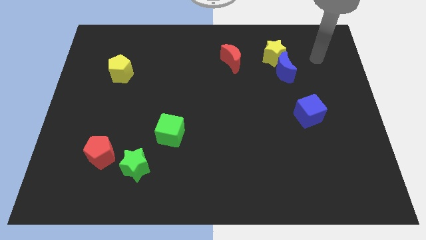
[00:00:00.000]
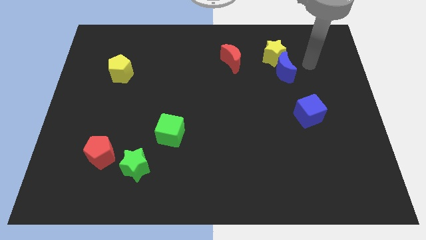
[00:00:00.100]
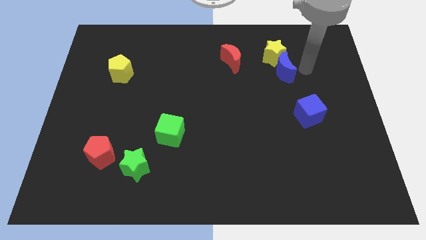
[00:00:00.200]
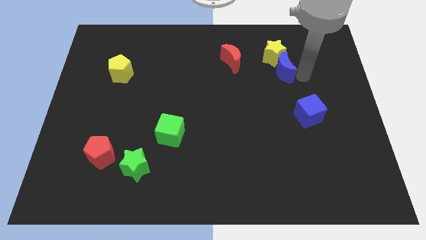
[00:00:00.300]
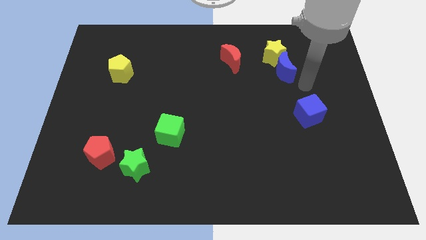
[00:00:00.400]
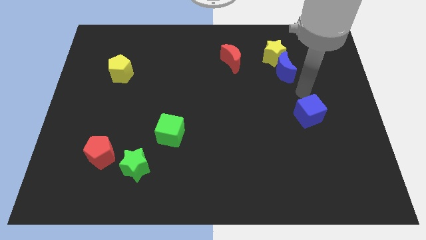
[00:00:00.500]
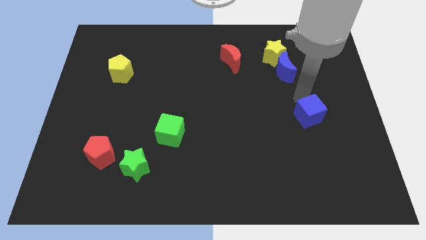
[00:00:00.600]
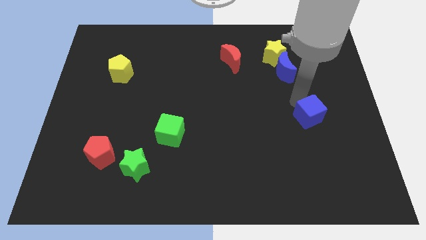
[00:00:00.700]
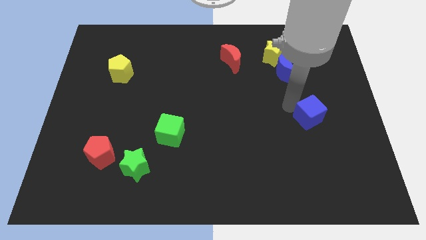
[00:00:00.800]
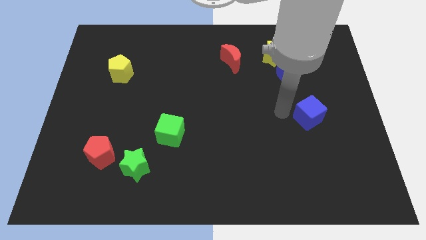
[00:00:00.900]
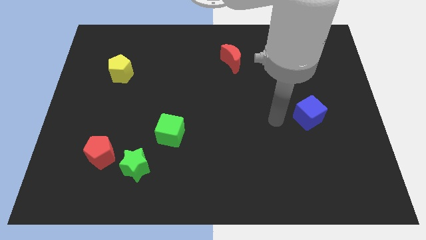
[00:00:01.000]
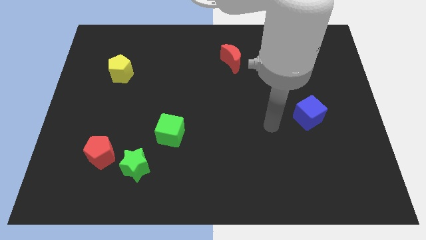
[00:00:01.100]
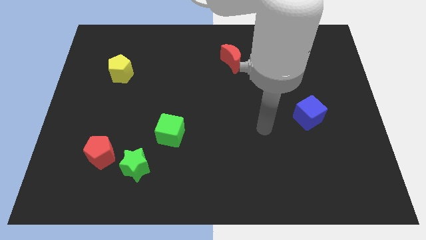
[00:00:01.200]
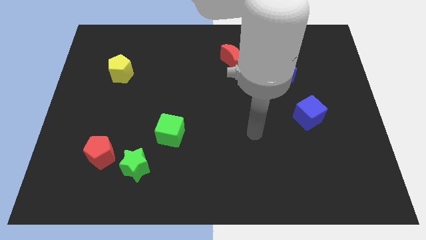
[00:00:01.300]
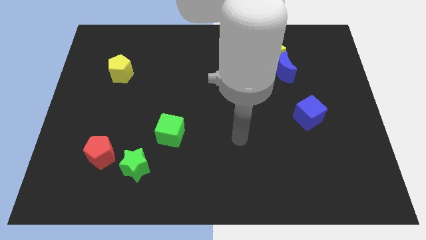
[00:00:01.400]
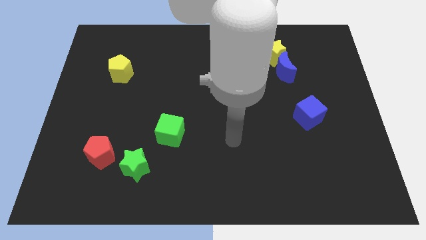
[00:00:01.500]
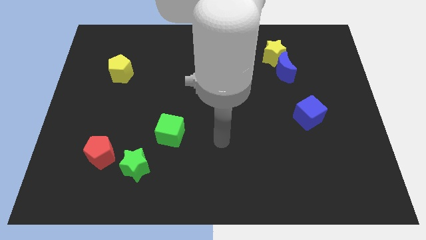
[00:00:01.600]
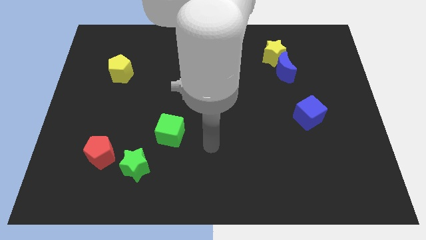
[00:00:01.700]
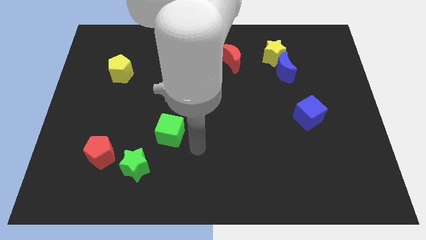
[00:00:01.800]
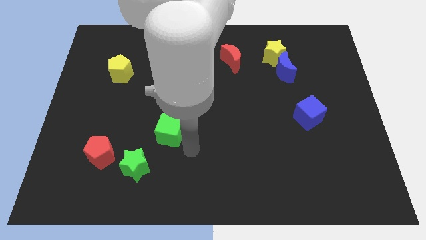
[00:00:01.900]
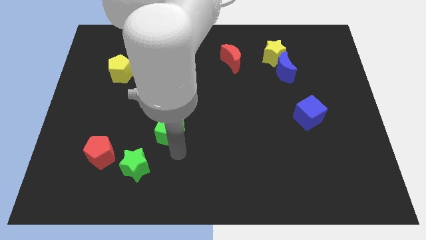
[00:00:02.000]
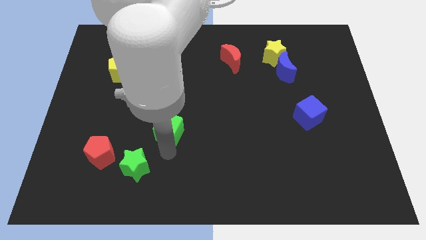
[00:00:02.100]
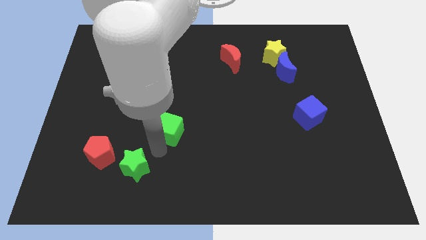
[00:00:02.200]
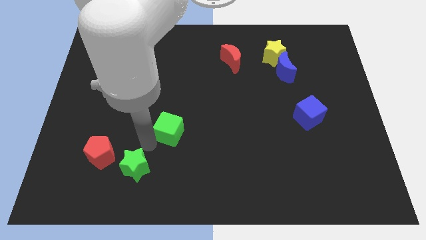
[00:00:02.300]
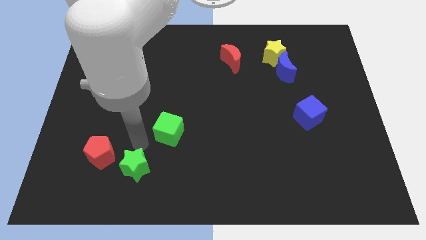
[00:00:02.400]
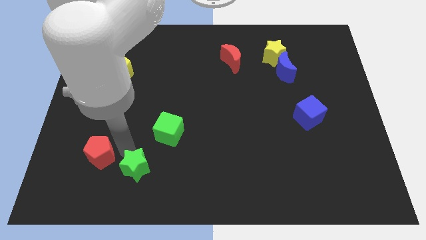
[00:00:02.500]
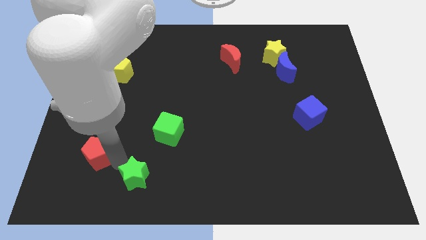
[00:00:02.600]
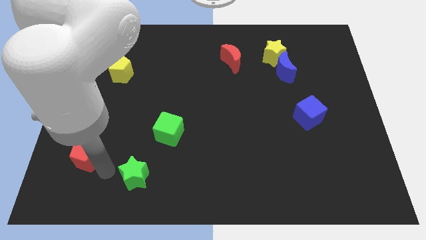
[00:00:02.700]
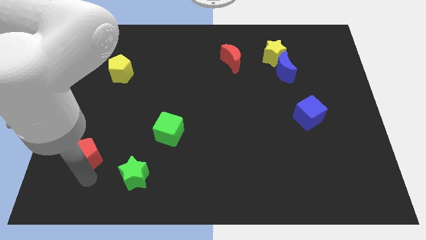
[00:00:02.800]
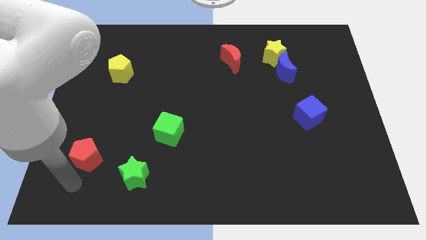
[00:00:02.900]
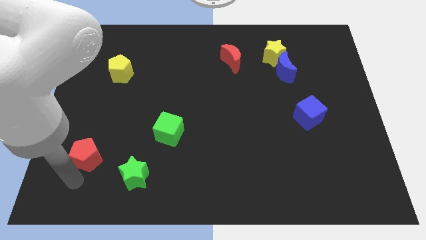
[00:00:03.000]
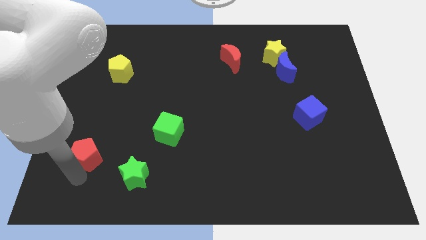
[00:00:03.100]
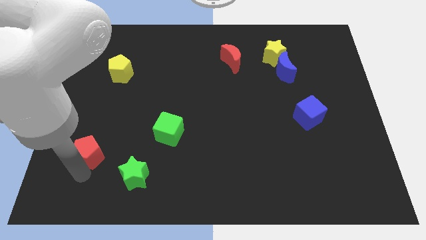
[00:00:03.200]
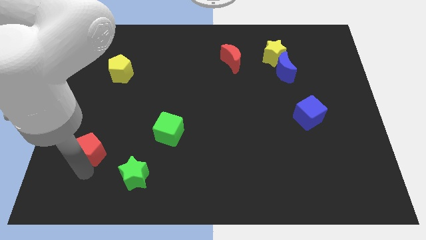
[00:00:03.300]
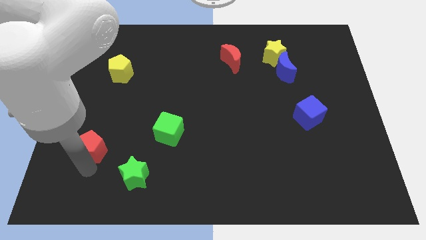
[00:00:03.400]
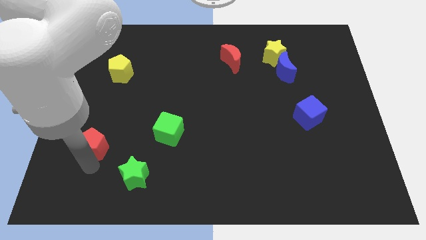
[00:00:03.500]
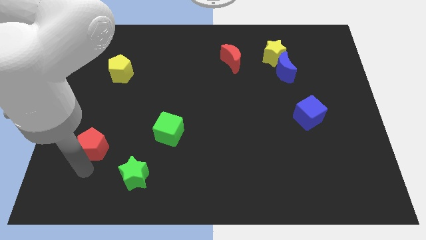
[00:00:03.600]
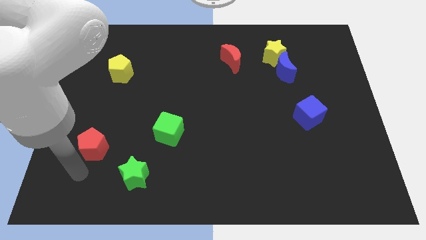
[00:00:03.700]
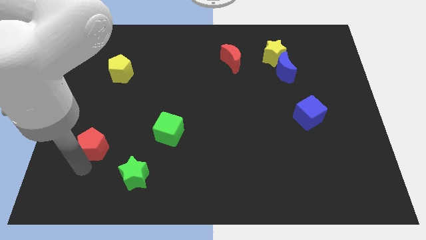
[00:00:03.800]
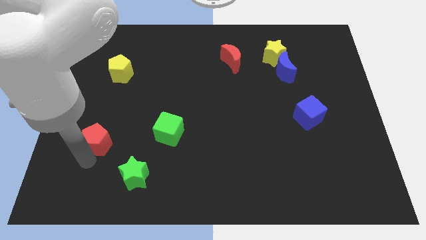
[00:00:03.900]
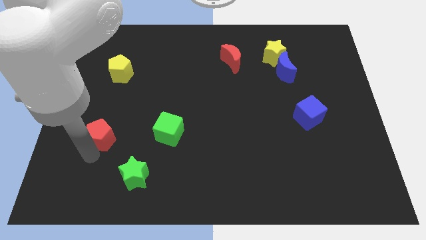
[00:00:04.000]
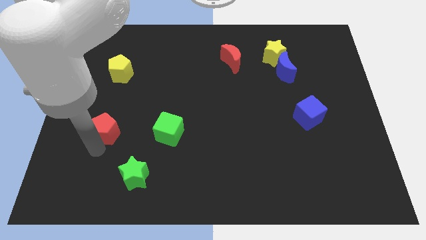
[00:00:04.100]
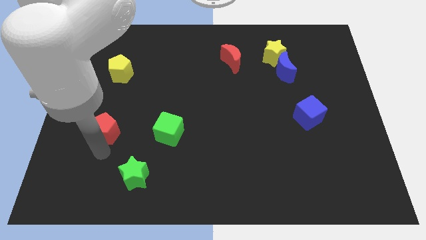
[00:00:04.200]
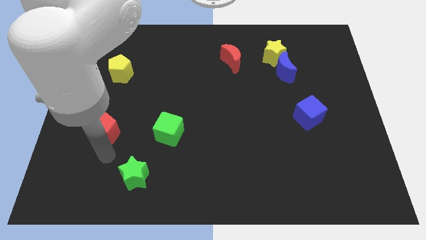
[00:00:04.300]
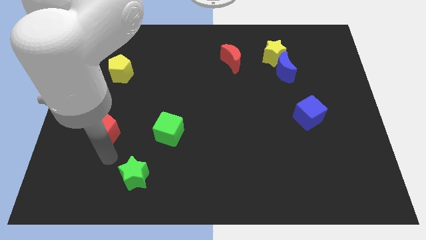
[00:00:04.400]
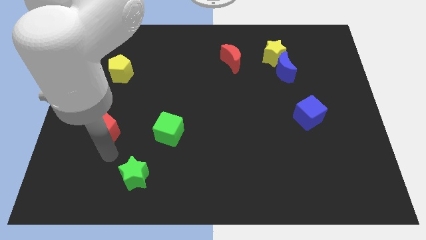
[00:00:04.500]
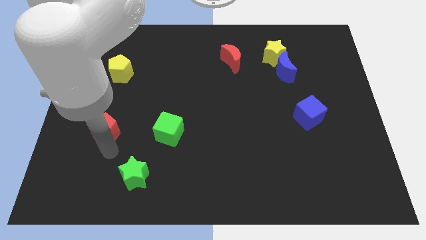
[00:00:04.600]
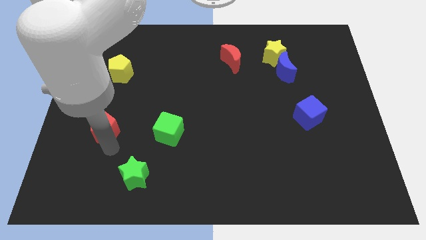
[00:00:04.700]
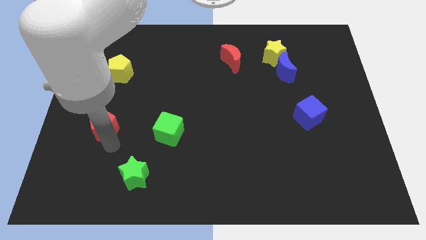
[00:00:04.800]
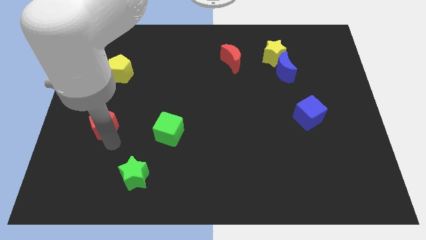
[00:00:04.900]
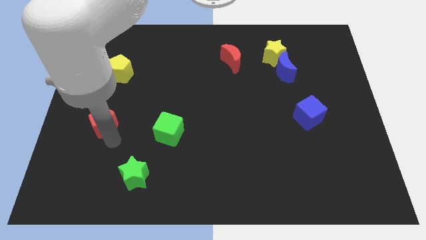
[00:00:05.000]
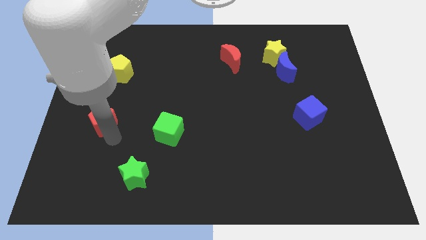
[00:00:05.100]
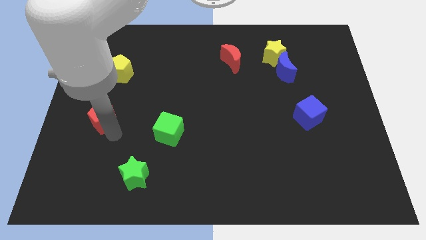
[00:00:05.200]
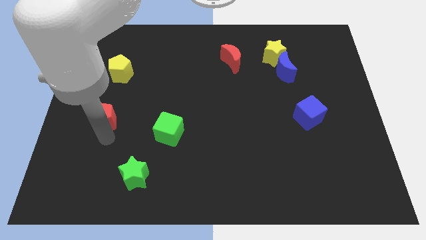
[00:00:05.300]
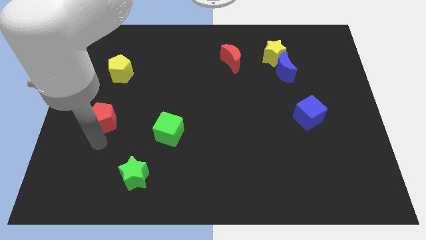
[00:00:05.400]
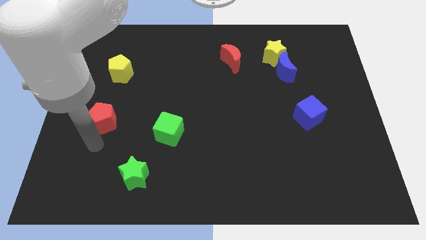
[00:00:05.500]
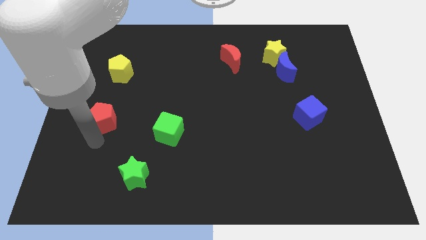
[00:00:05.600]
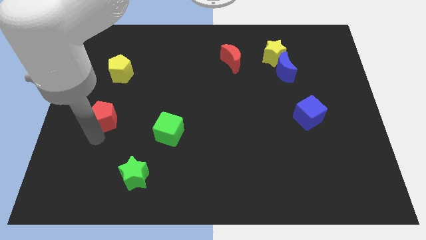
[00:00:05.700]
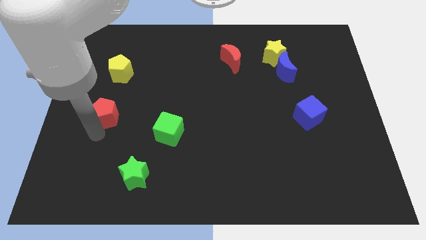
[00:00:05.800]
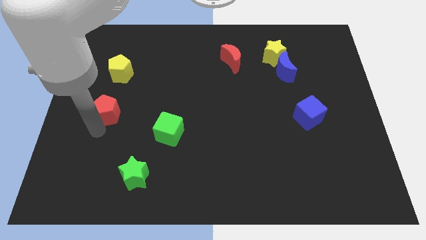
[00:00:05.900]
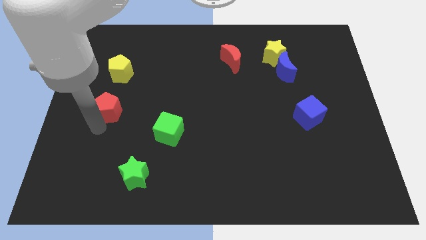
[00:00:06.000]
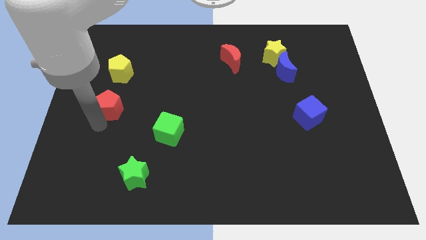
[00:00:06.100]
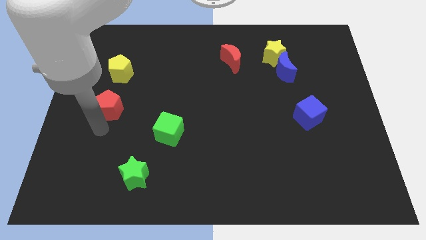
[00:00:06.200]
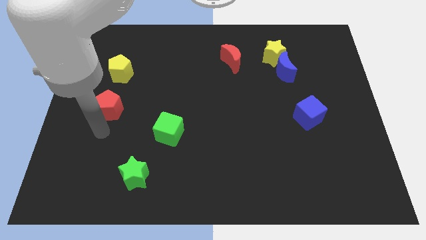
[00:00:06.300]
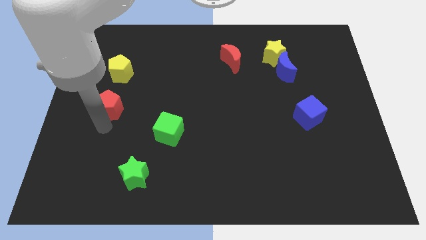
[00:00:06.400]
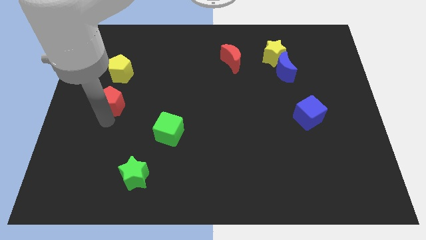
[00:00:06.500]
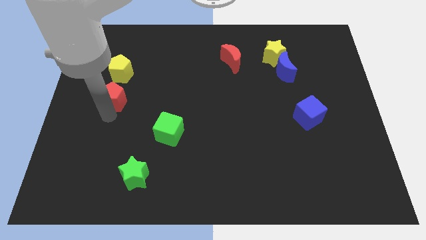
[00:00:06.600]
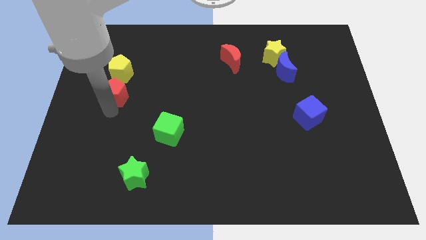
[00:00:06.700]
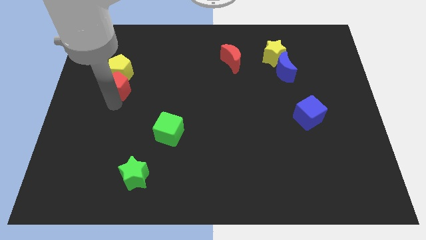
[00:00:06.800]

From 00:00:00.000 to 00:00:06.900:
push the red pentagon close to the yellow pentagon

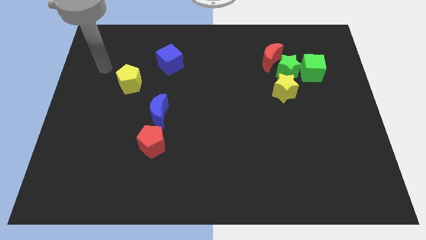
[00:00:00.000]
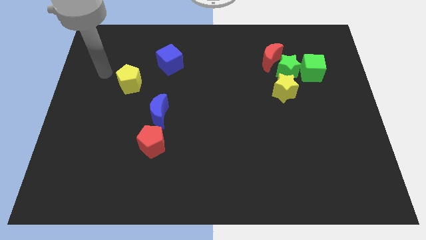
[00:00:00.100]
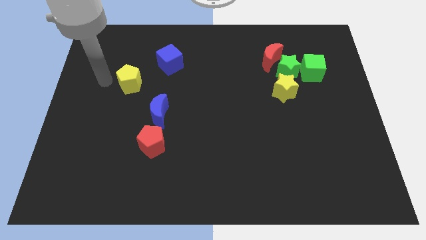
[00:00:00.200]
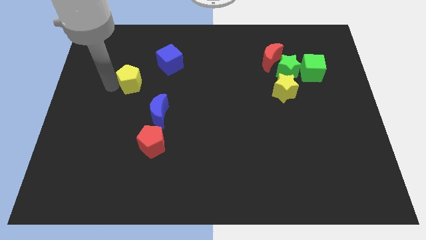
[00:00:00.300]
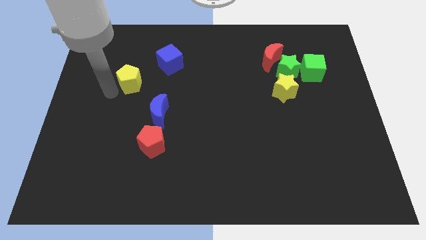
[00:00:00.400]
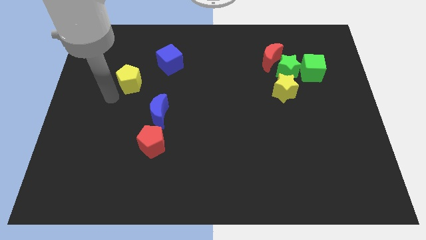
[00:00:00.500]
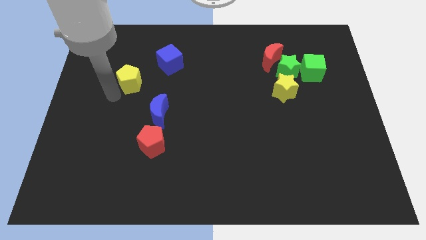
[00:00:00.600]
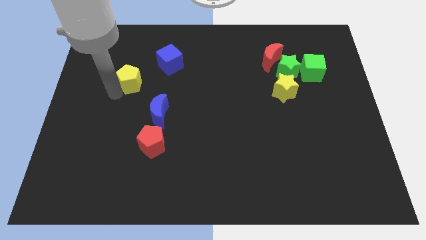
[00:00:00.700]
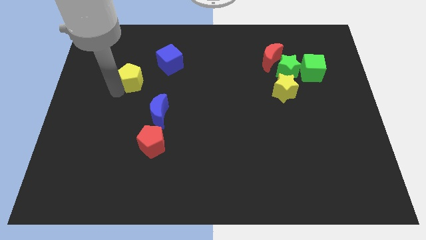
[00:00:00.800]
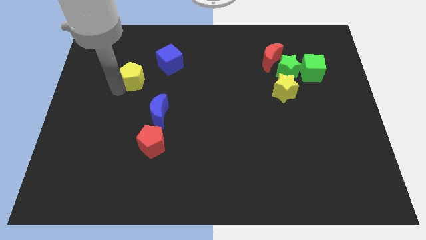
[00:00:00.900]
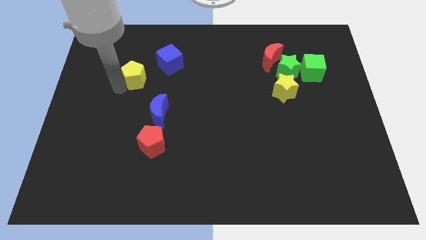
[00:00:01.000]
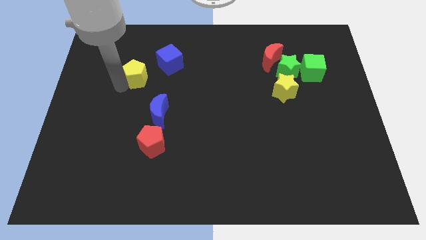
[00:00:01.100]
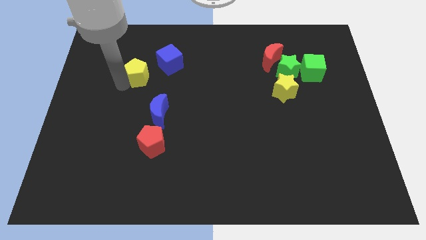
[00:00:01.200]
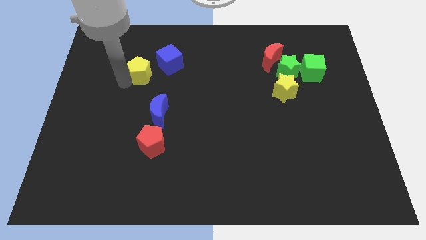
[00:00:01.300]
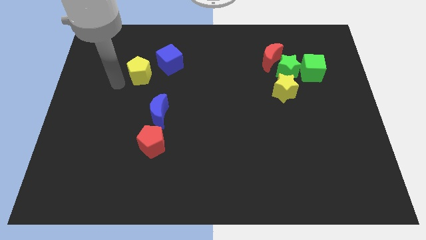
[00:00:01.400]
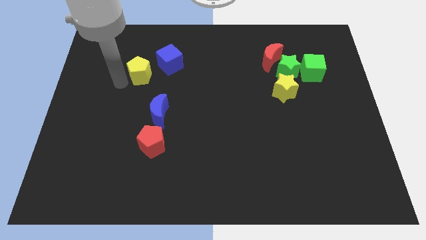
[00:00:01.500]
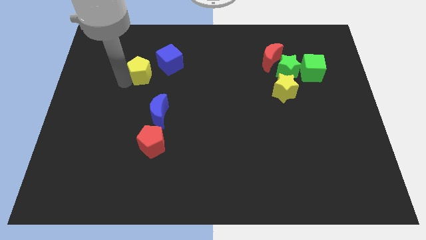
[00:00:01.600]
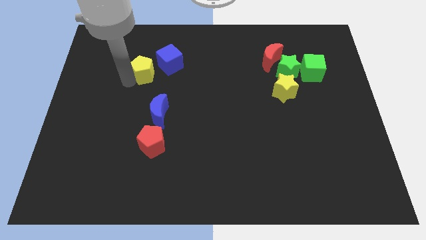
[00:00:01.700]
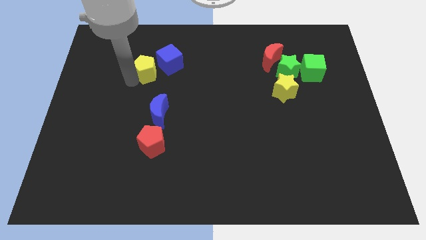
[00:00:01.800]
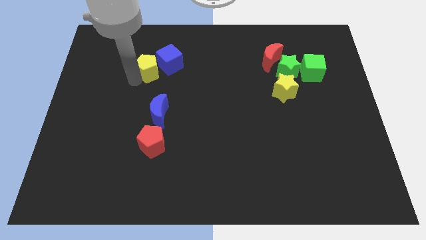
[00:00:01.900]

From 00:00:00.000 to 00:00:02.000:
push the yellow pentagon to the blue cube
